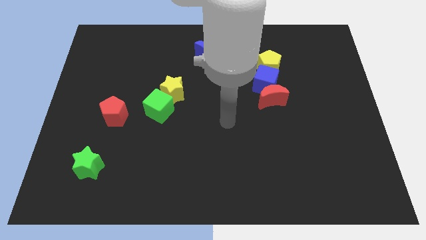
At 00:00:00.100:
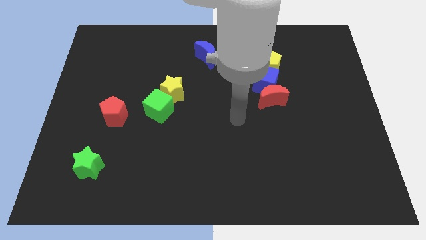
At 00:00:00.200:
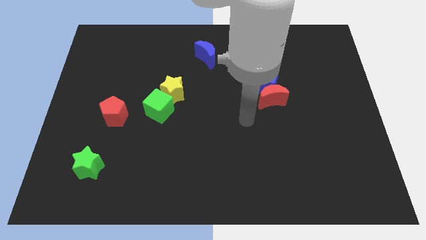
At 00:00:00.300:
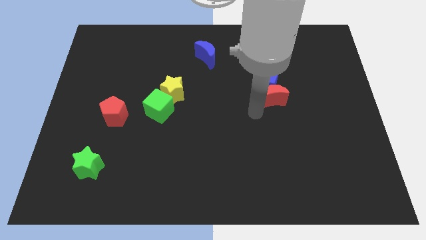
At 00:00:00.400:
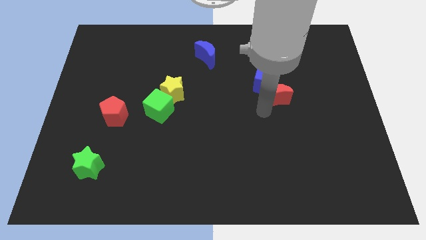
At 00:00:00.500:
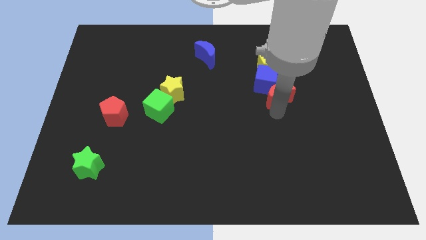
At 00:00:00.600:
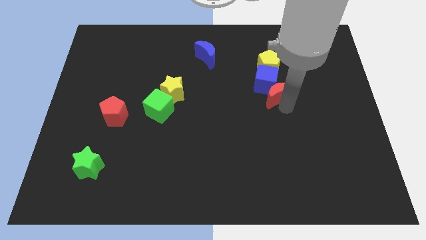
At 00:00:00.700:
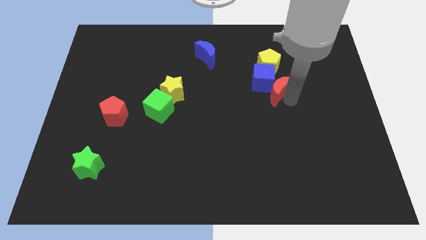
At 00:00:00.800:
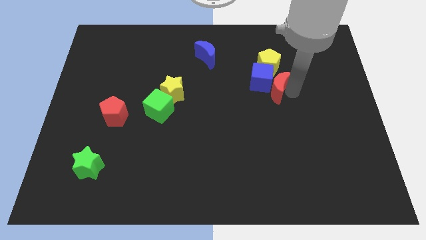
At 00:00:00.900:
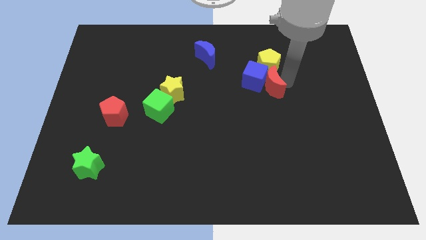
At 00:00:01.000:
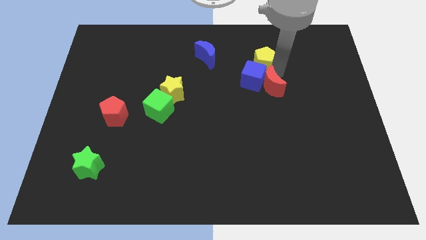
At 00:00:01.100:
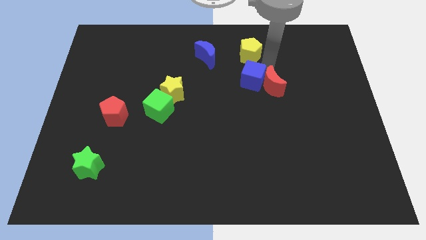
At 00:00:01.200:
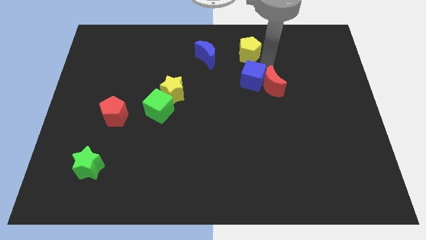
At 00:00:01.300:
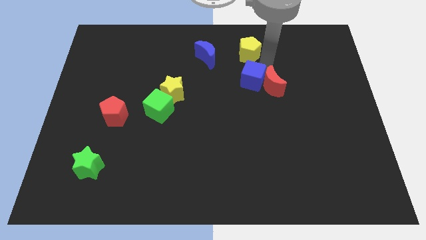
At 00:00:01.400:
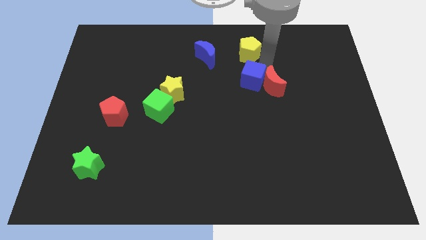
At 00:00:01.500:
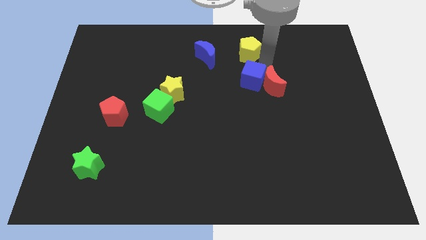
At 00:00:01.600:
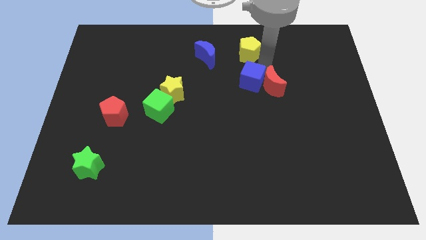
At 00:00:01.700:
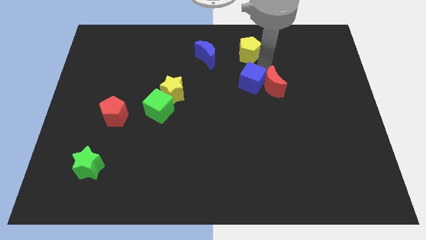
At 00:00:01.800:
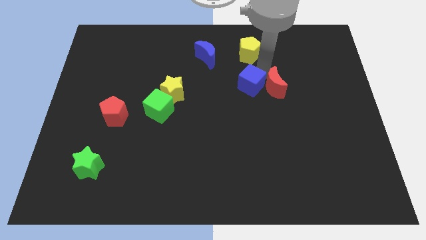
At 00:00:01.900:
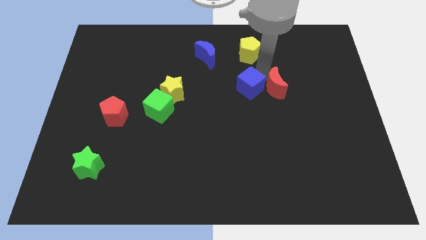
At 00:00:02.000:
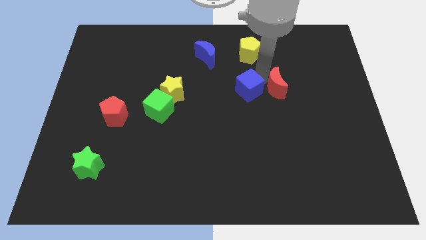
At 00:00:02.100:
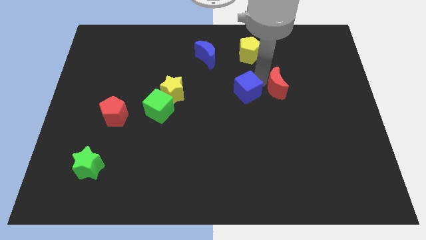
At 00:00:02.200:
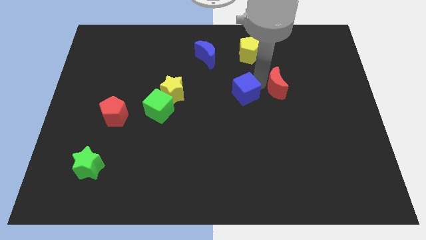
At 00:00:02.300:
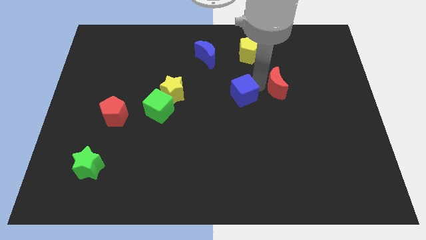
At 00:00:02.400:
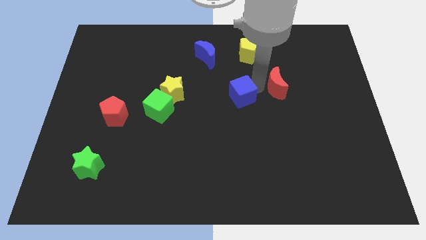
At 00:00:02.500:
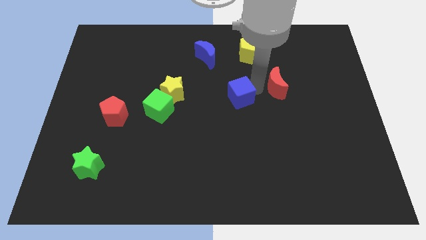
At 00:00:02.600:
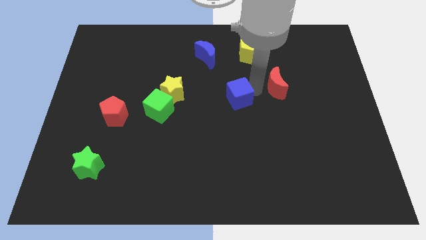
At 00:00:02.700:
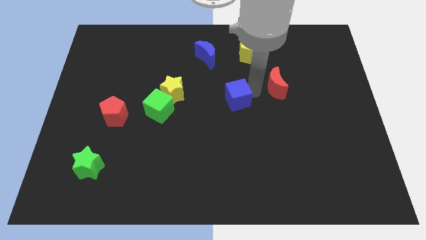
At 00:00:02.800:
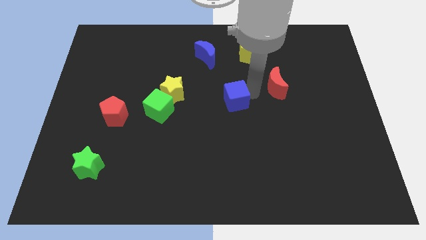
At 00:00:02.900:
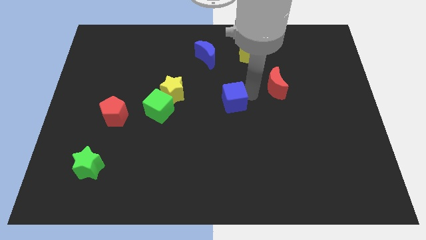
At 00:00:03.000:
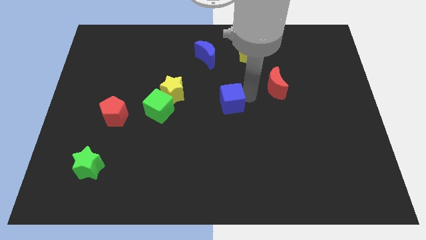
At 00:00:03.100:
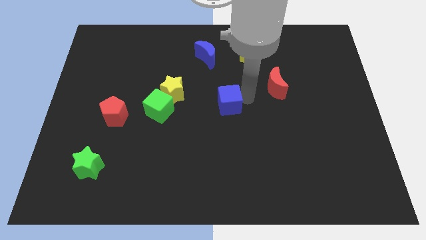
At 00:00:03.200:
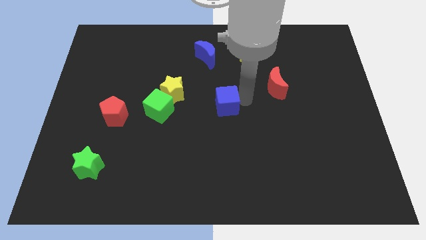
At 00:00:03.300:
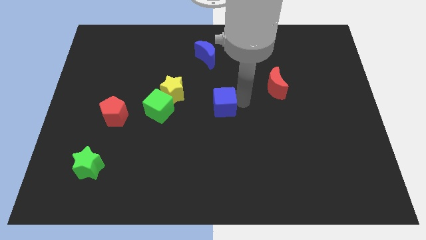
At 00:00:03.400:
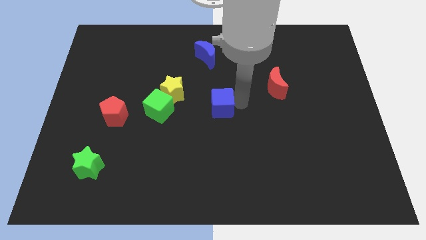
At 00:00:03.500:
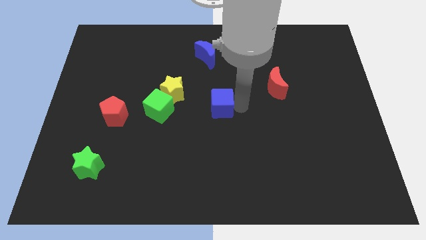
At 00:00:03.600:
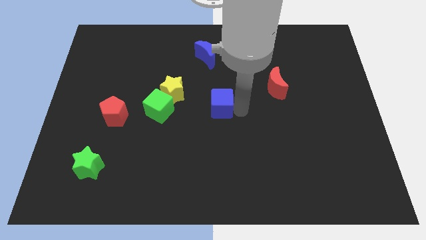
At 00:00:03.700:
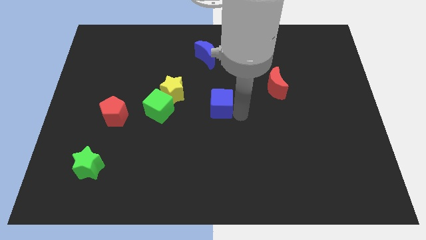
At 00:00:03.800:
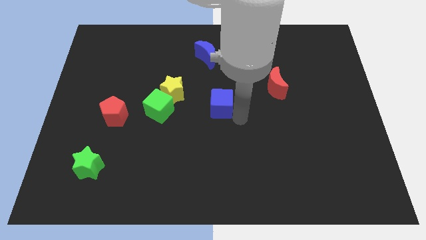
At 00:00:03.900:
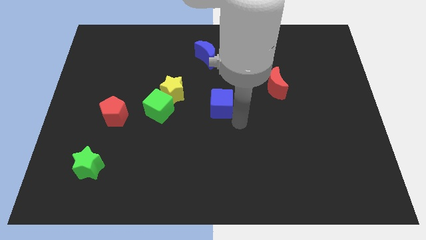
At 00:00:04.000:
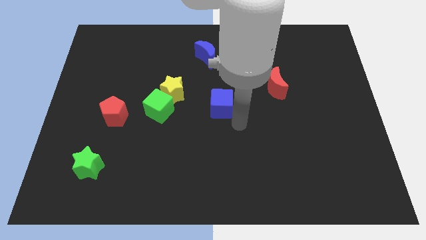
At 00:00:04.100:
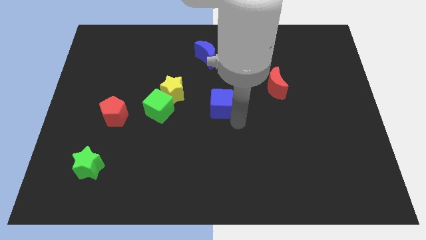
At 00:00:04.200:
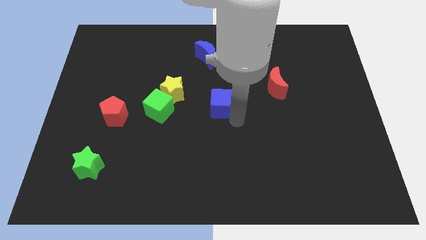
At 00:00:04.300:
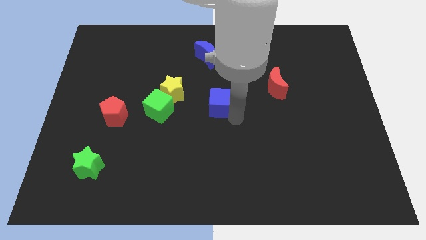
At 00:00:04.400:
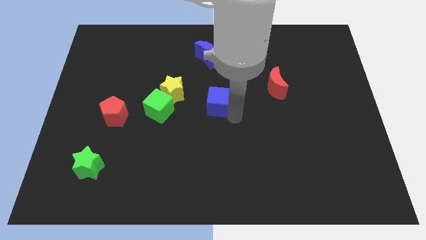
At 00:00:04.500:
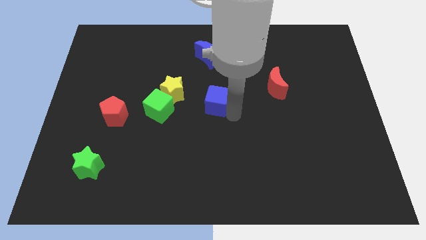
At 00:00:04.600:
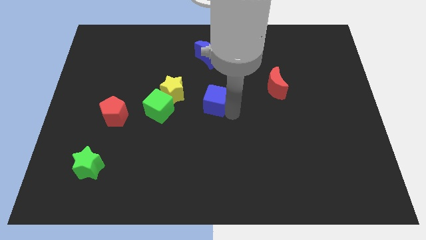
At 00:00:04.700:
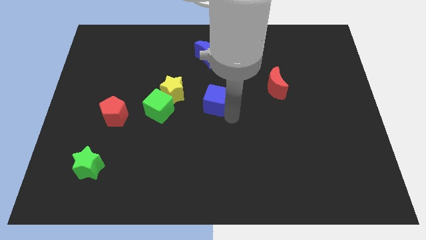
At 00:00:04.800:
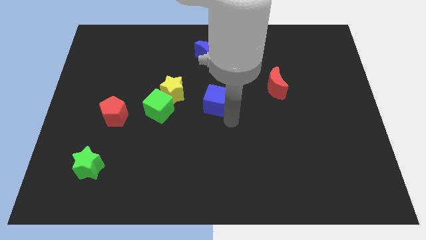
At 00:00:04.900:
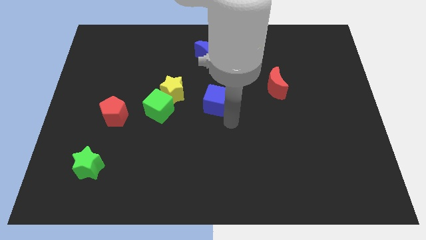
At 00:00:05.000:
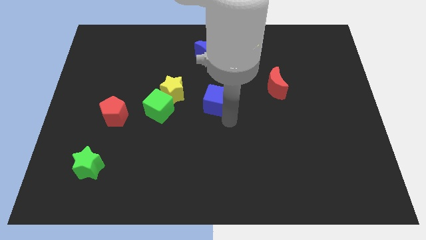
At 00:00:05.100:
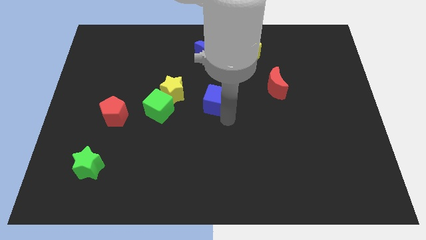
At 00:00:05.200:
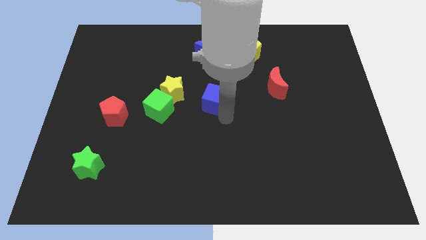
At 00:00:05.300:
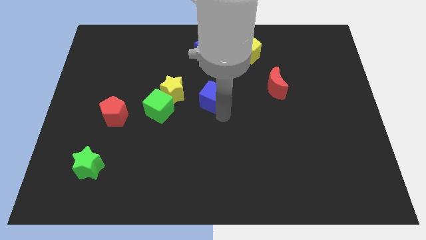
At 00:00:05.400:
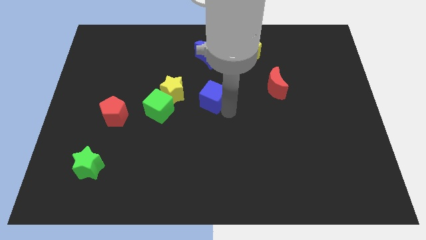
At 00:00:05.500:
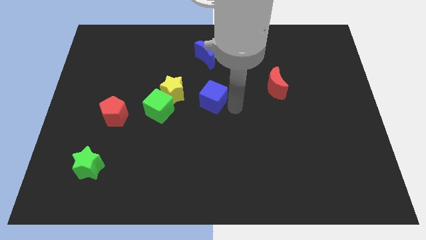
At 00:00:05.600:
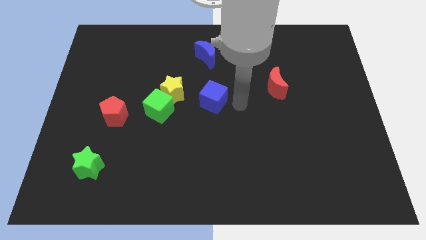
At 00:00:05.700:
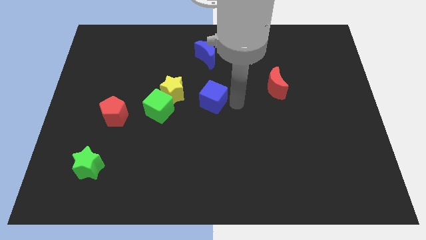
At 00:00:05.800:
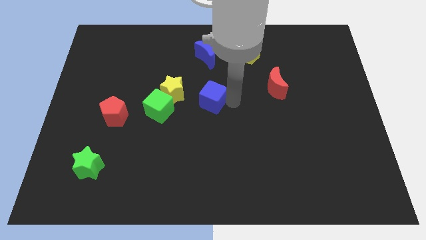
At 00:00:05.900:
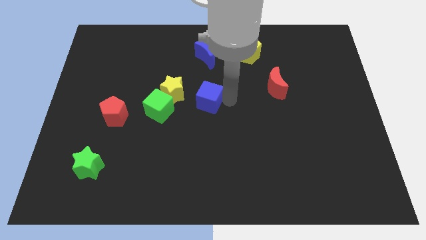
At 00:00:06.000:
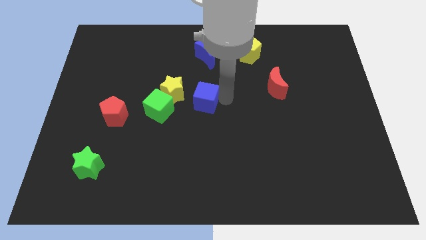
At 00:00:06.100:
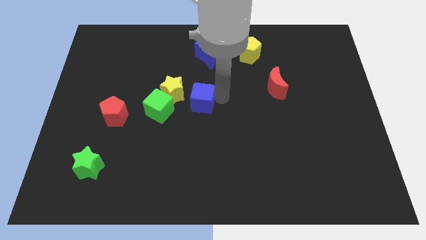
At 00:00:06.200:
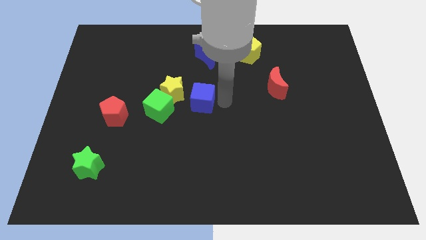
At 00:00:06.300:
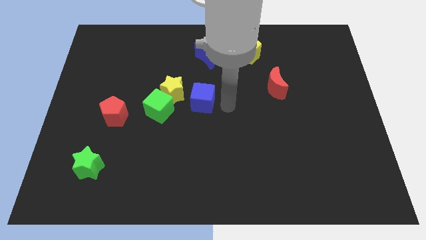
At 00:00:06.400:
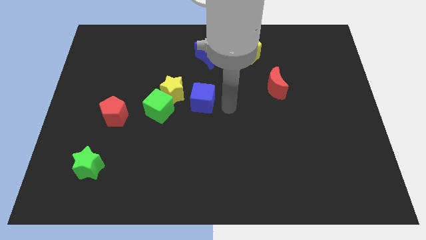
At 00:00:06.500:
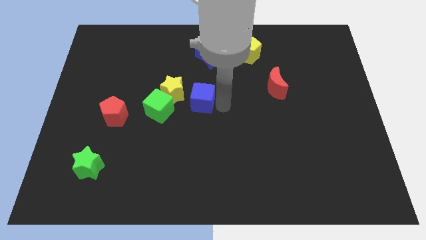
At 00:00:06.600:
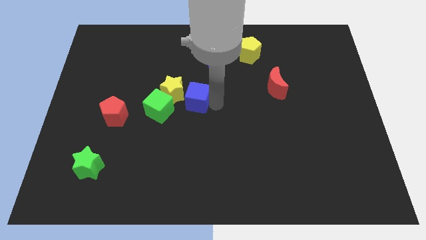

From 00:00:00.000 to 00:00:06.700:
push the blue cube towards the yellow star

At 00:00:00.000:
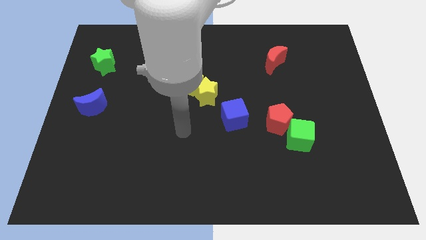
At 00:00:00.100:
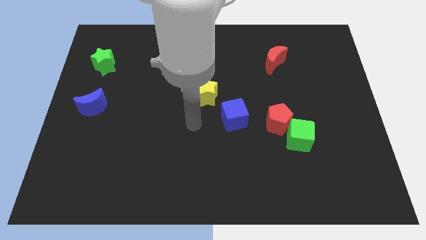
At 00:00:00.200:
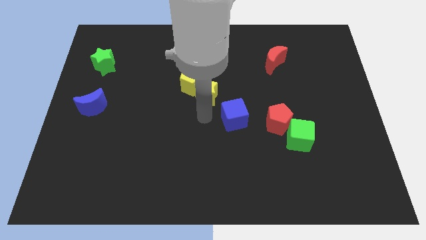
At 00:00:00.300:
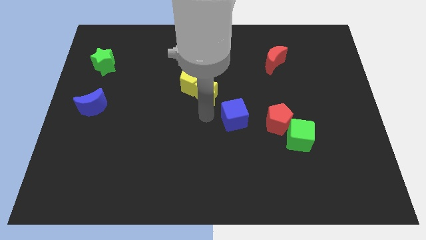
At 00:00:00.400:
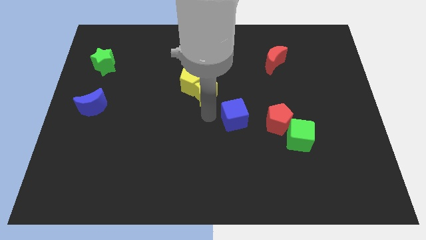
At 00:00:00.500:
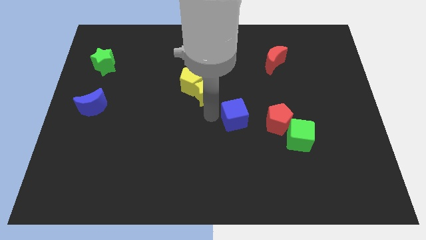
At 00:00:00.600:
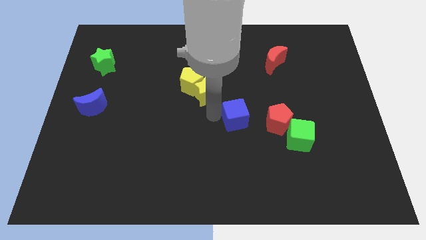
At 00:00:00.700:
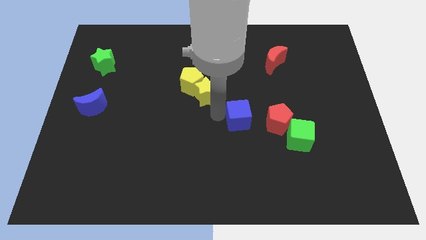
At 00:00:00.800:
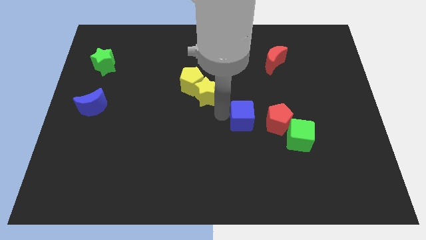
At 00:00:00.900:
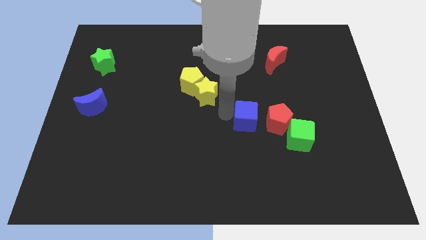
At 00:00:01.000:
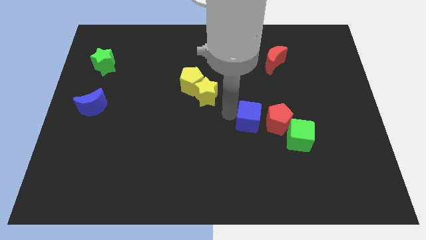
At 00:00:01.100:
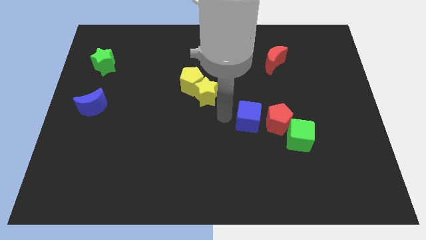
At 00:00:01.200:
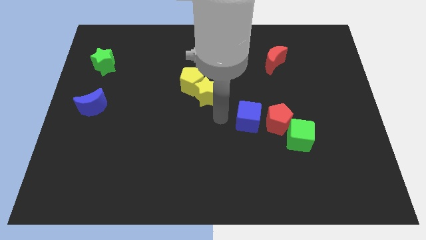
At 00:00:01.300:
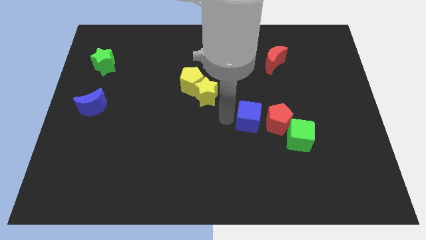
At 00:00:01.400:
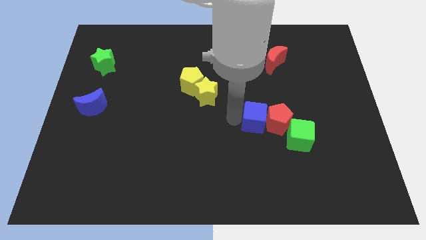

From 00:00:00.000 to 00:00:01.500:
slide the blue cube next to the red pentagon
